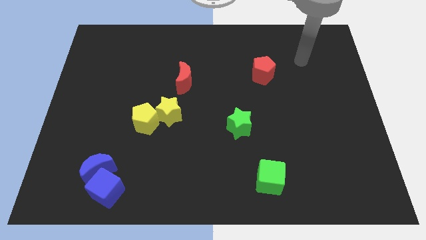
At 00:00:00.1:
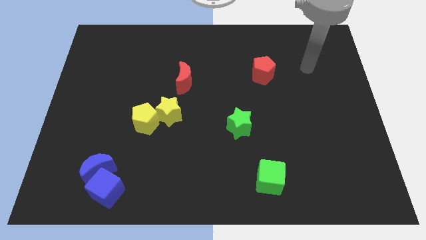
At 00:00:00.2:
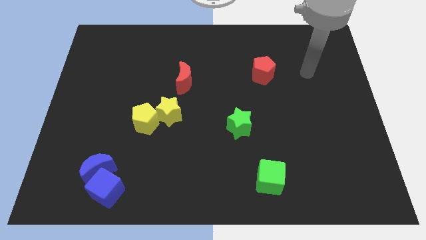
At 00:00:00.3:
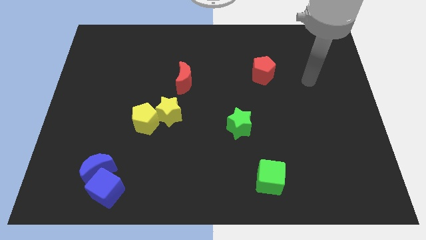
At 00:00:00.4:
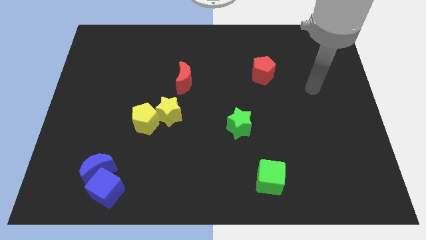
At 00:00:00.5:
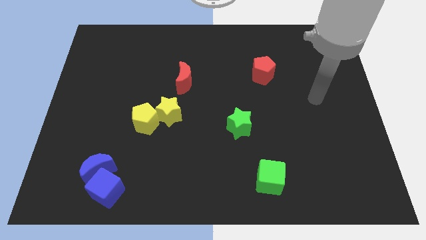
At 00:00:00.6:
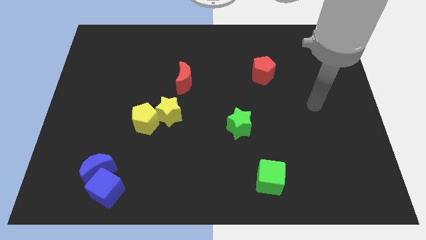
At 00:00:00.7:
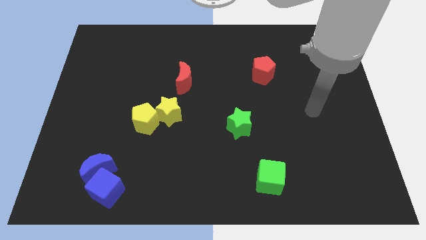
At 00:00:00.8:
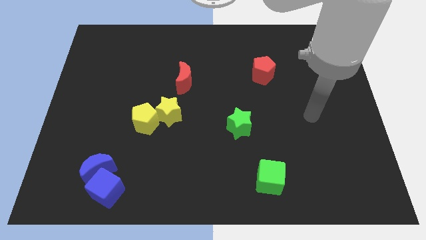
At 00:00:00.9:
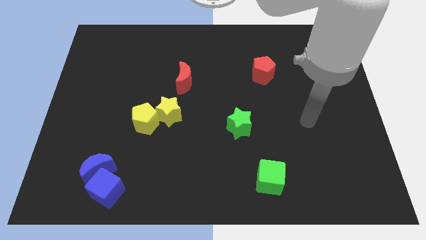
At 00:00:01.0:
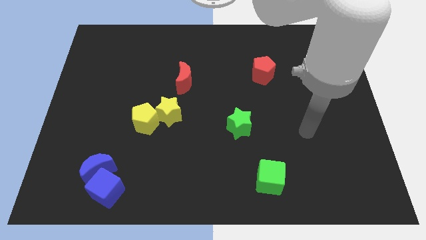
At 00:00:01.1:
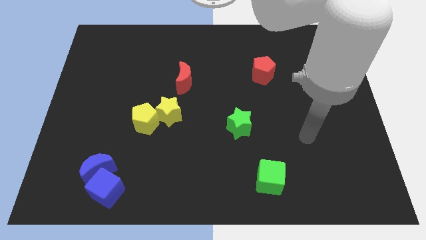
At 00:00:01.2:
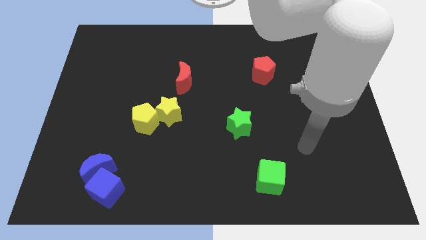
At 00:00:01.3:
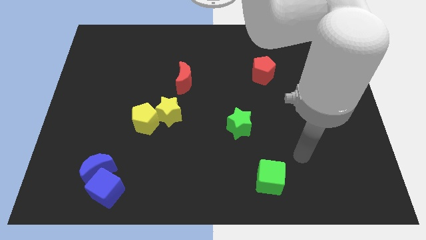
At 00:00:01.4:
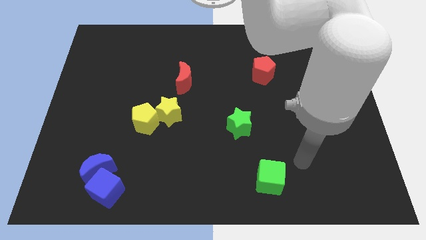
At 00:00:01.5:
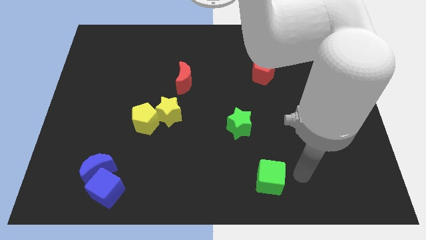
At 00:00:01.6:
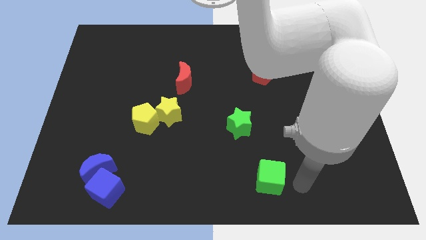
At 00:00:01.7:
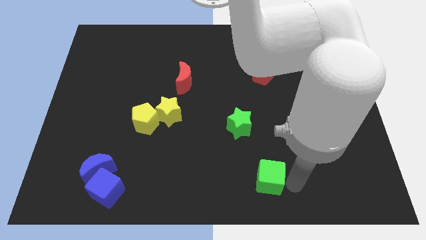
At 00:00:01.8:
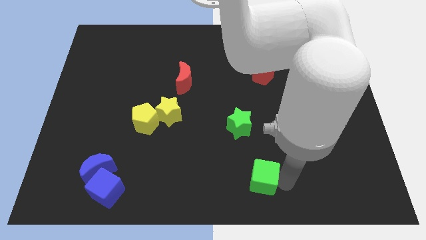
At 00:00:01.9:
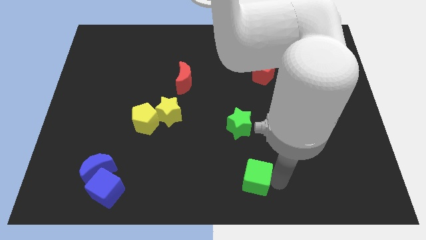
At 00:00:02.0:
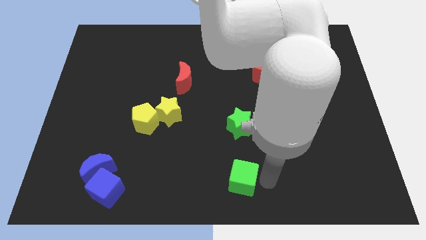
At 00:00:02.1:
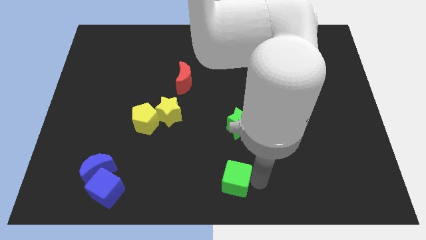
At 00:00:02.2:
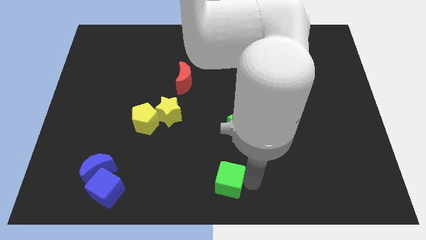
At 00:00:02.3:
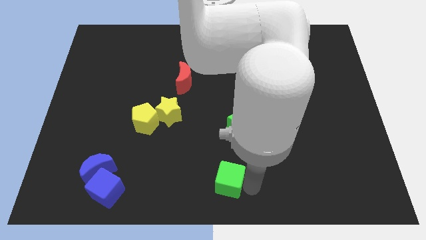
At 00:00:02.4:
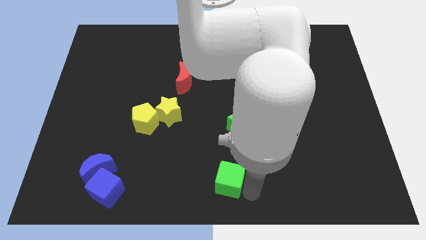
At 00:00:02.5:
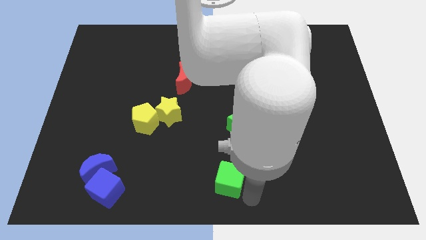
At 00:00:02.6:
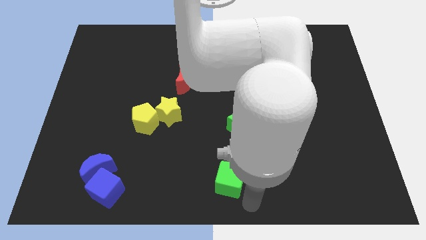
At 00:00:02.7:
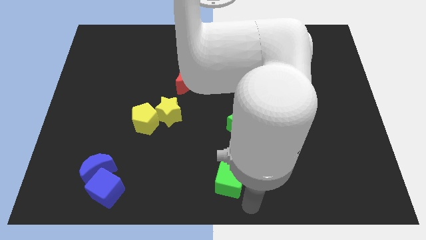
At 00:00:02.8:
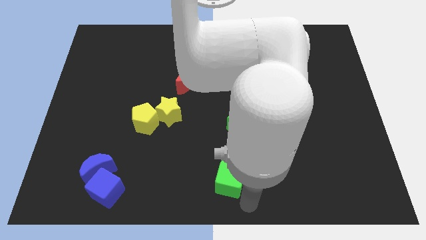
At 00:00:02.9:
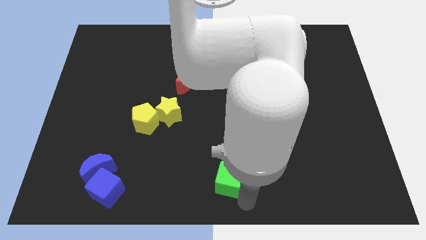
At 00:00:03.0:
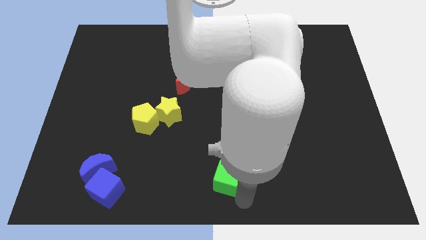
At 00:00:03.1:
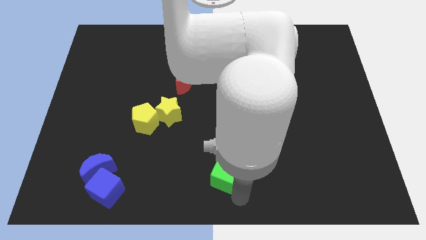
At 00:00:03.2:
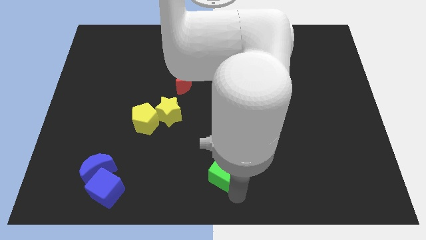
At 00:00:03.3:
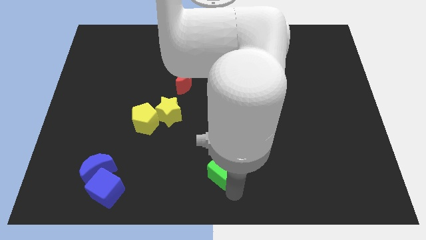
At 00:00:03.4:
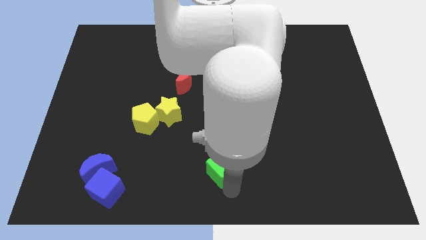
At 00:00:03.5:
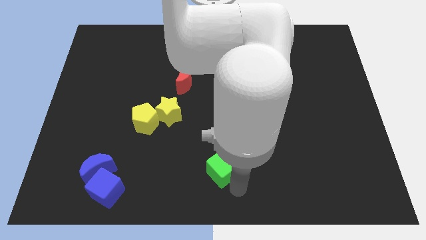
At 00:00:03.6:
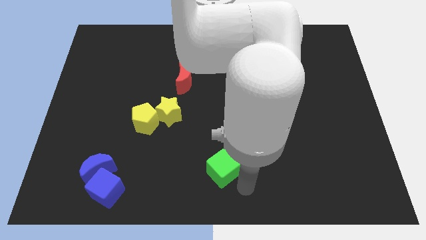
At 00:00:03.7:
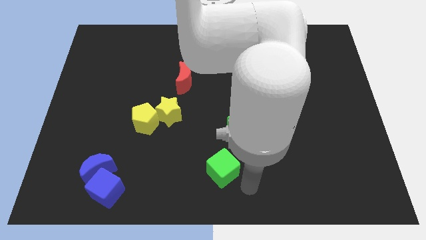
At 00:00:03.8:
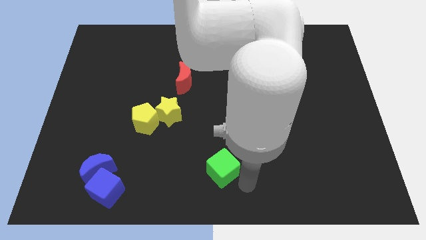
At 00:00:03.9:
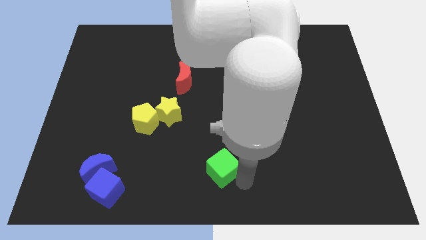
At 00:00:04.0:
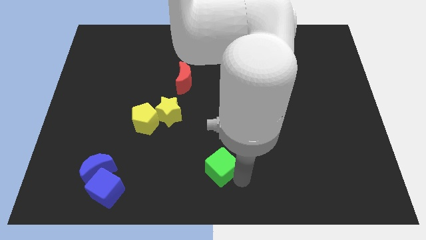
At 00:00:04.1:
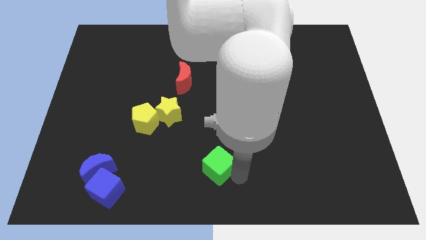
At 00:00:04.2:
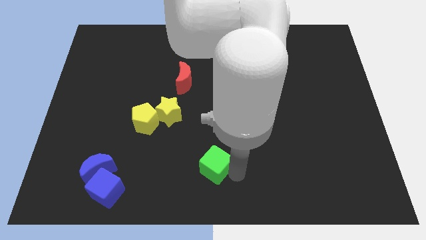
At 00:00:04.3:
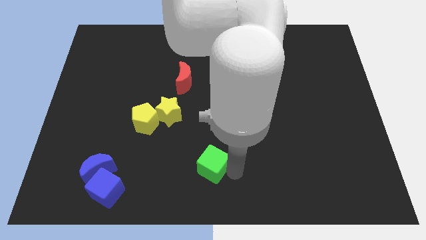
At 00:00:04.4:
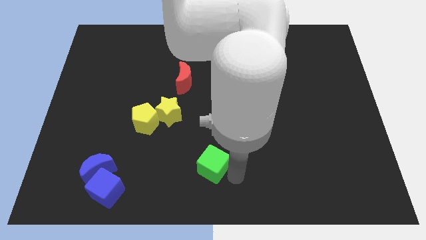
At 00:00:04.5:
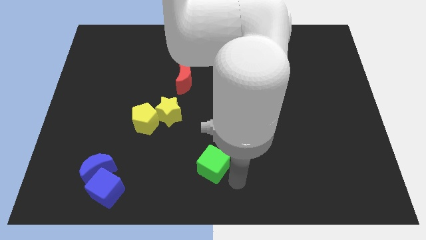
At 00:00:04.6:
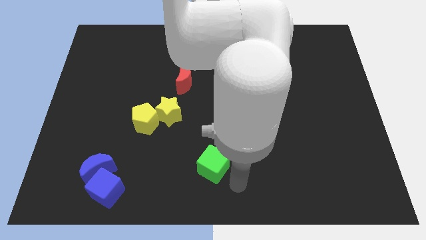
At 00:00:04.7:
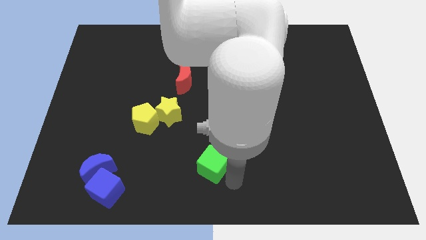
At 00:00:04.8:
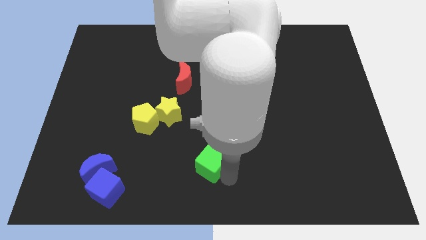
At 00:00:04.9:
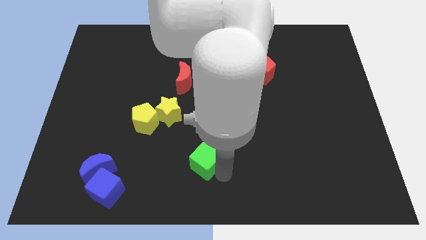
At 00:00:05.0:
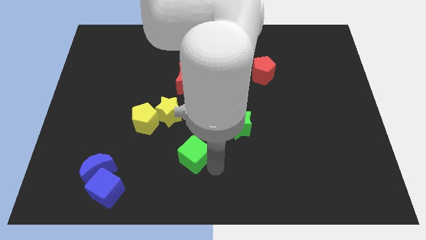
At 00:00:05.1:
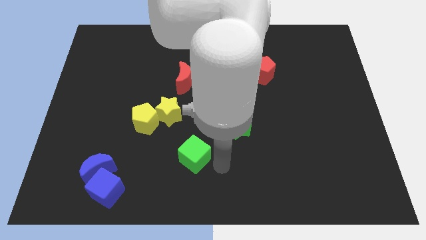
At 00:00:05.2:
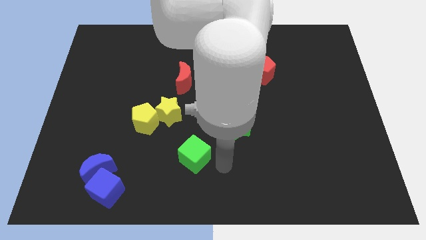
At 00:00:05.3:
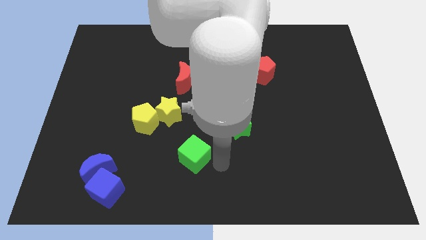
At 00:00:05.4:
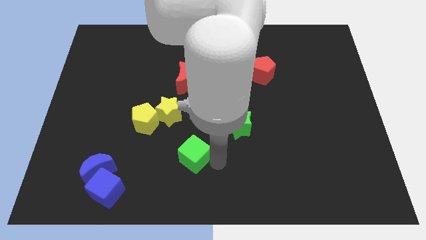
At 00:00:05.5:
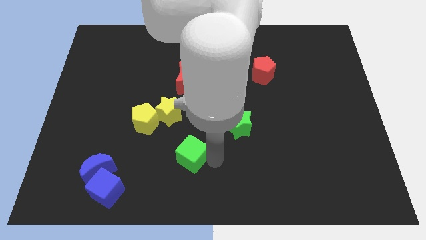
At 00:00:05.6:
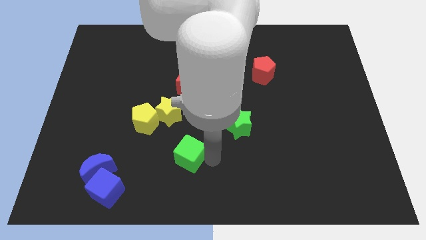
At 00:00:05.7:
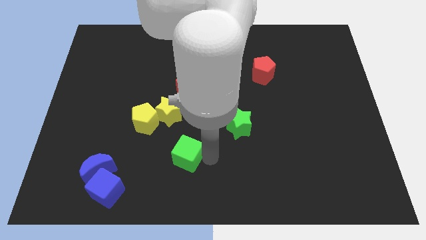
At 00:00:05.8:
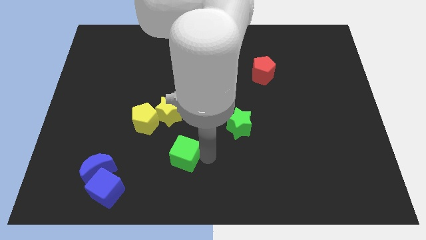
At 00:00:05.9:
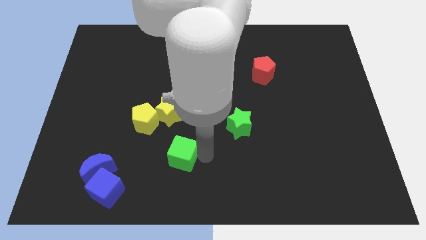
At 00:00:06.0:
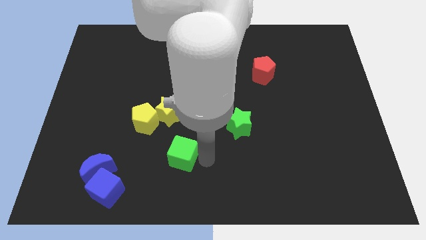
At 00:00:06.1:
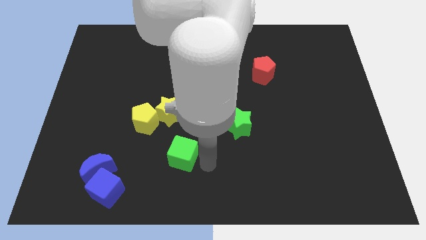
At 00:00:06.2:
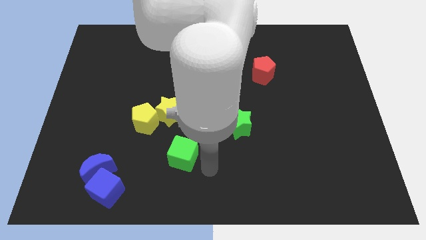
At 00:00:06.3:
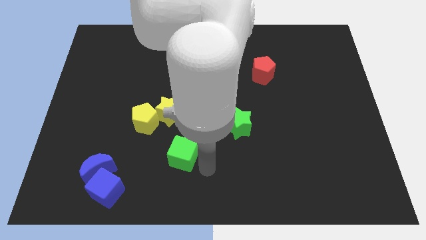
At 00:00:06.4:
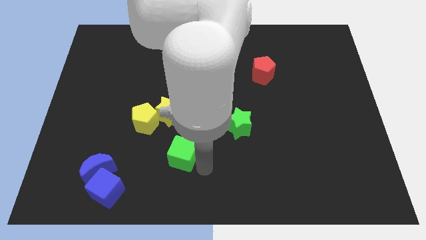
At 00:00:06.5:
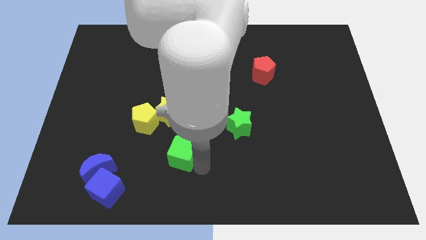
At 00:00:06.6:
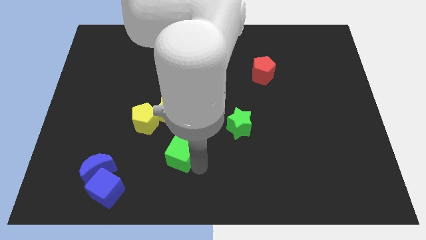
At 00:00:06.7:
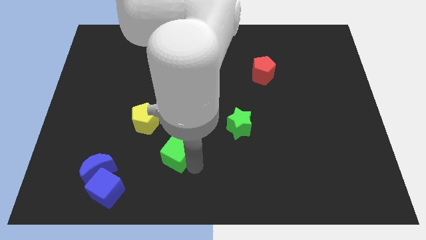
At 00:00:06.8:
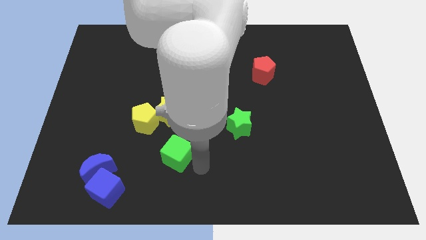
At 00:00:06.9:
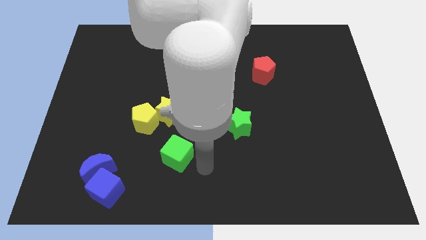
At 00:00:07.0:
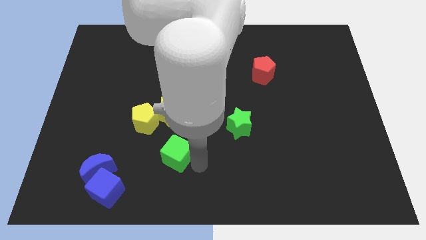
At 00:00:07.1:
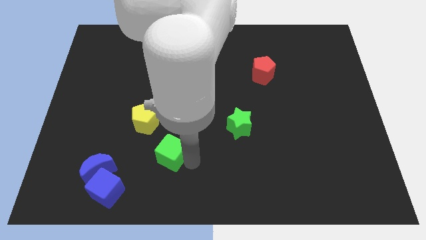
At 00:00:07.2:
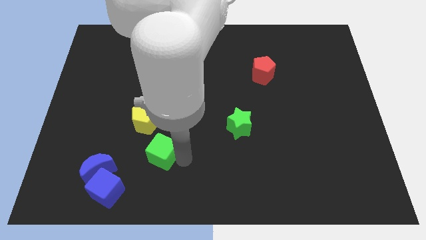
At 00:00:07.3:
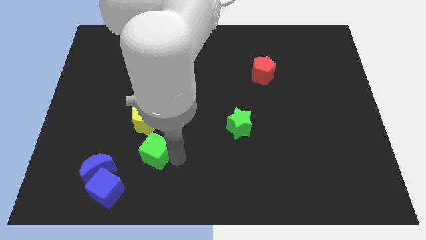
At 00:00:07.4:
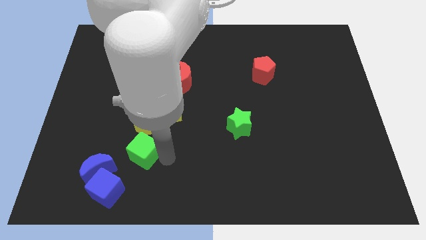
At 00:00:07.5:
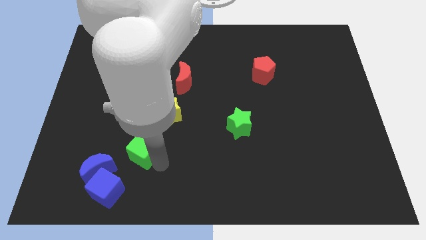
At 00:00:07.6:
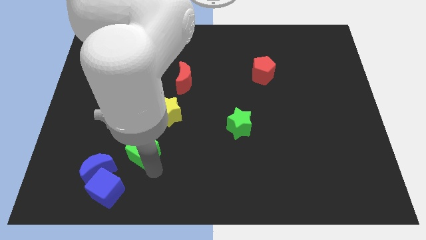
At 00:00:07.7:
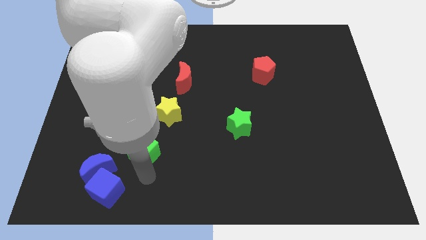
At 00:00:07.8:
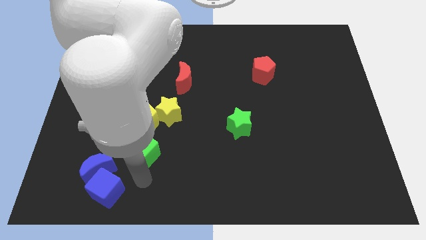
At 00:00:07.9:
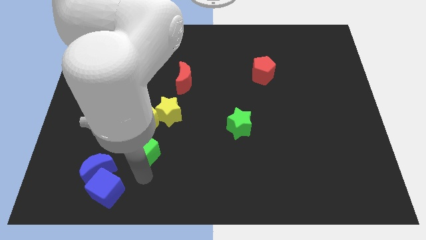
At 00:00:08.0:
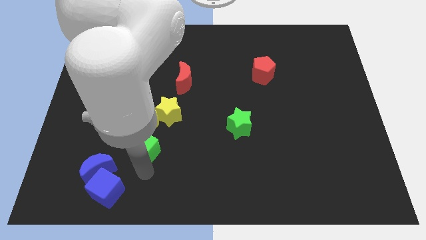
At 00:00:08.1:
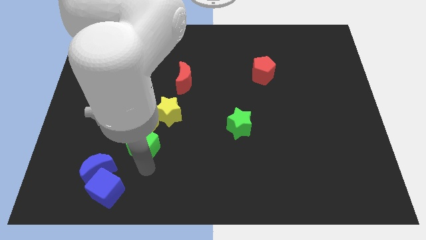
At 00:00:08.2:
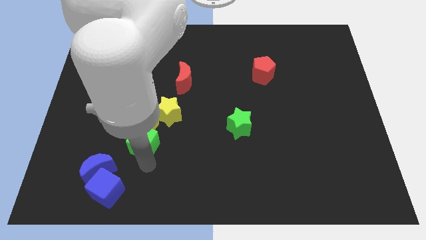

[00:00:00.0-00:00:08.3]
push the green cube to the yellow pentagon
